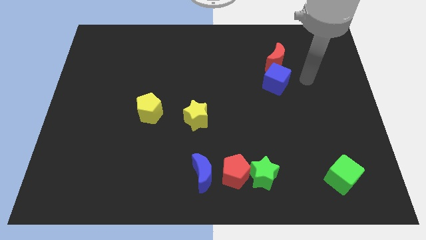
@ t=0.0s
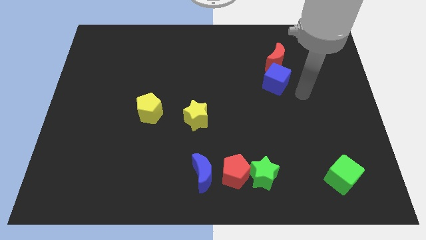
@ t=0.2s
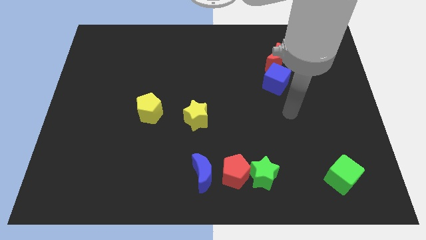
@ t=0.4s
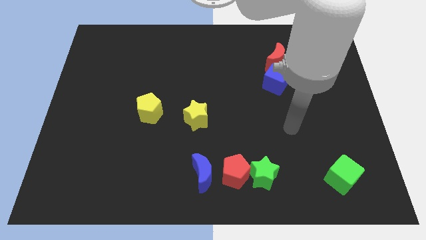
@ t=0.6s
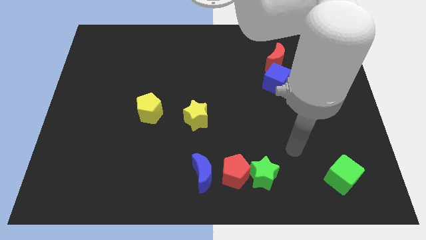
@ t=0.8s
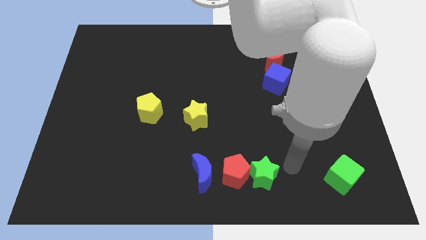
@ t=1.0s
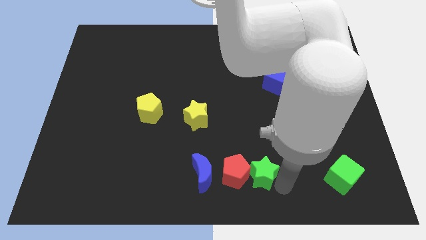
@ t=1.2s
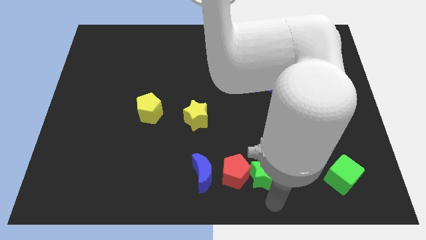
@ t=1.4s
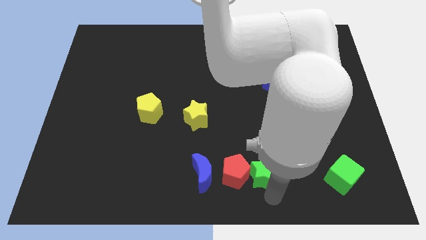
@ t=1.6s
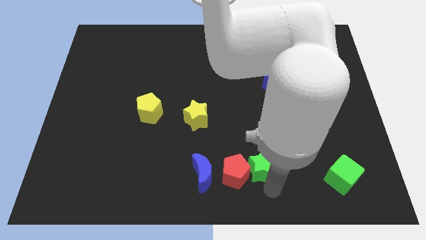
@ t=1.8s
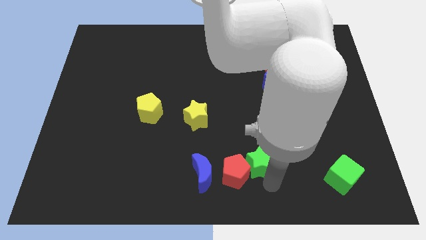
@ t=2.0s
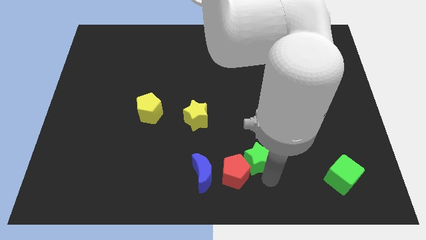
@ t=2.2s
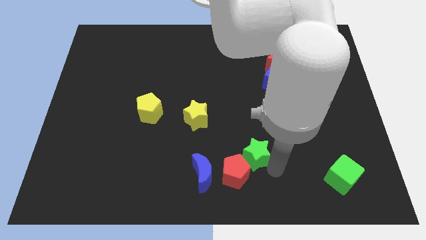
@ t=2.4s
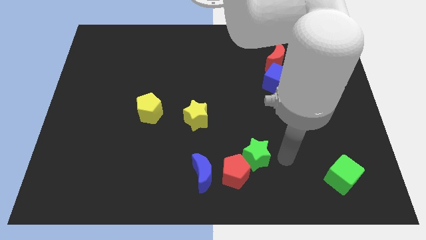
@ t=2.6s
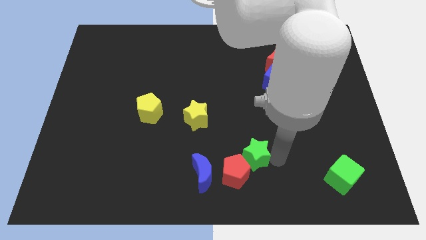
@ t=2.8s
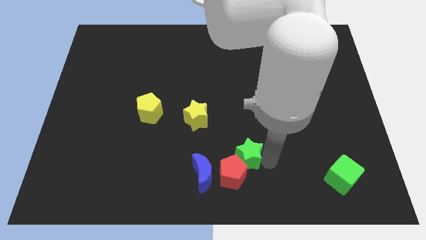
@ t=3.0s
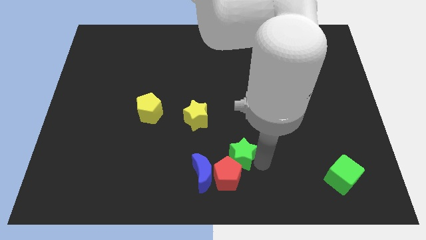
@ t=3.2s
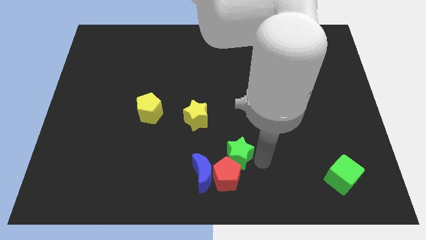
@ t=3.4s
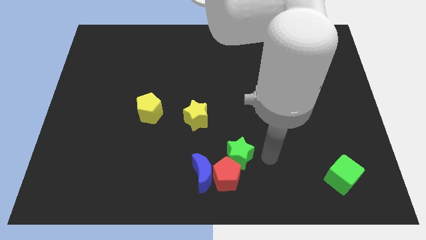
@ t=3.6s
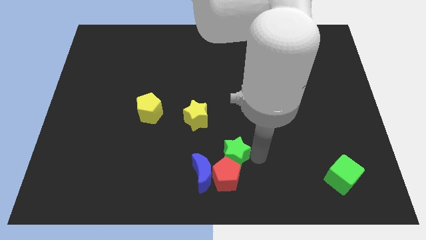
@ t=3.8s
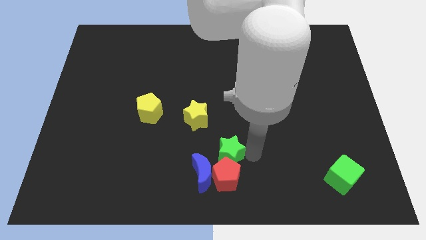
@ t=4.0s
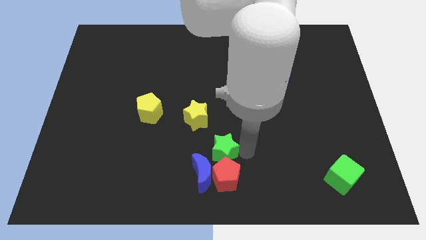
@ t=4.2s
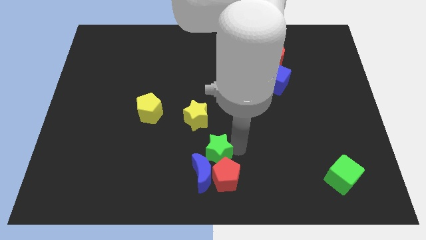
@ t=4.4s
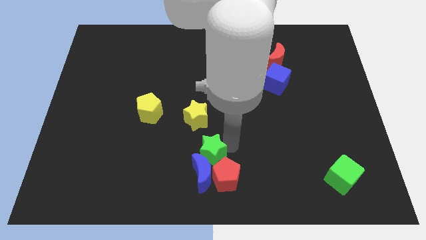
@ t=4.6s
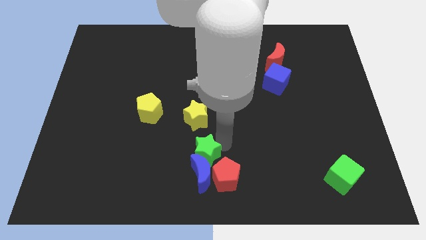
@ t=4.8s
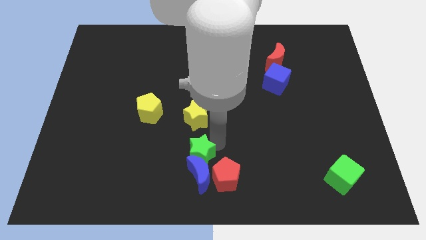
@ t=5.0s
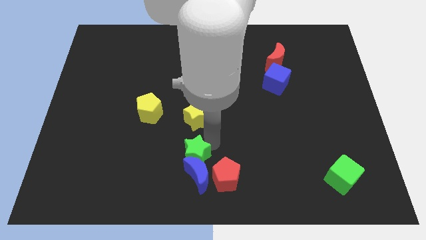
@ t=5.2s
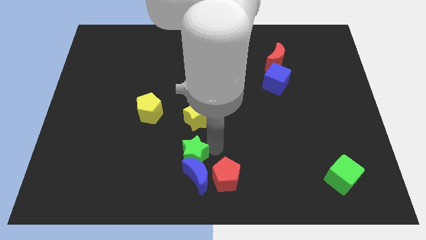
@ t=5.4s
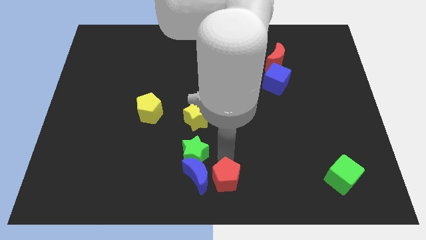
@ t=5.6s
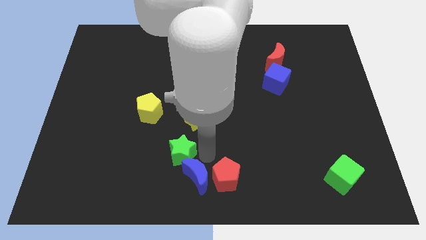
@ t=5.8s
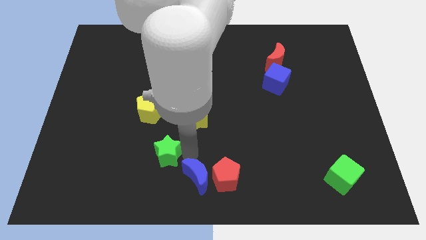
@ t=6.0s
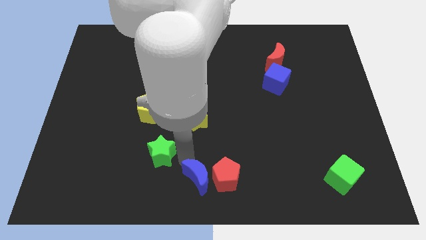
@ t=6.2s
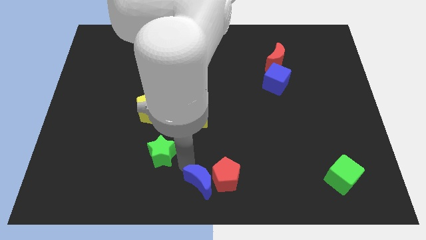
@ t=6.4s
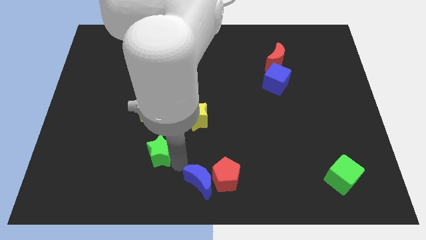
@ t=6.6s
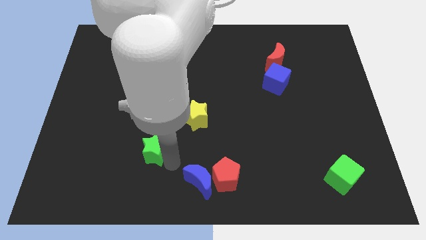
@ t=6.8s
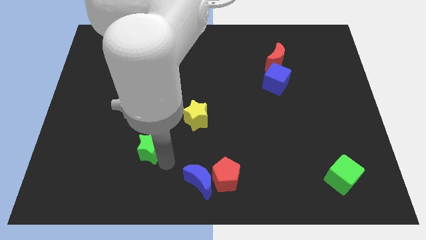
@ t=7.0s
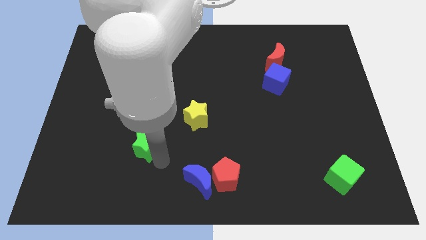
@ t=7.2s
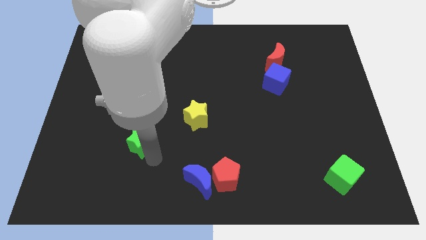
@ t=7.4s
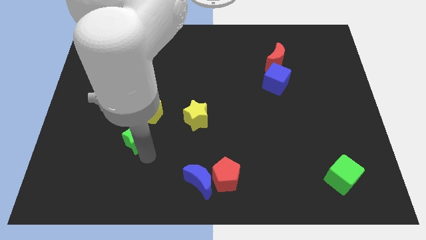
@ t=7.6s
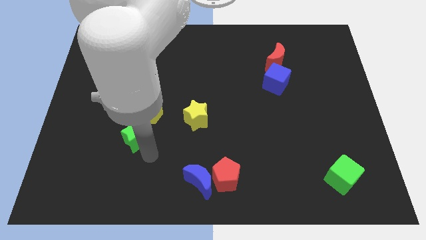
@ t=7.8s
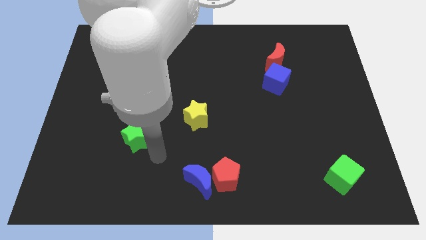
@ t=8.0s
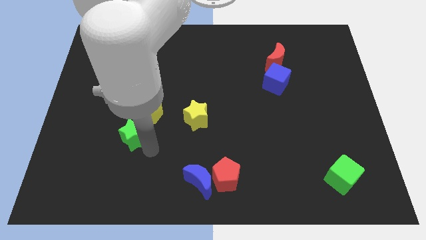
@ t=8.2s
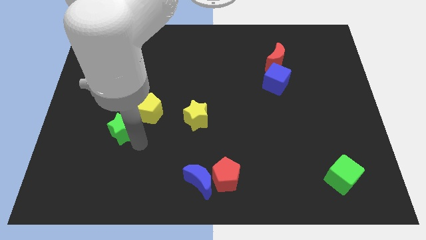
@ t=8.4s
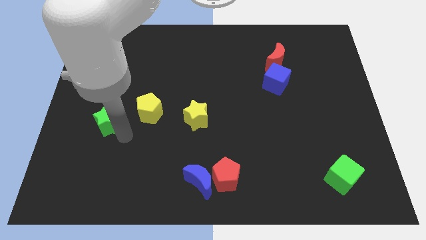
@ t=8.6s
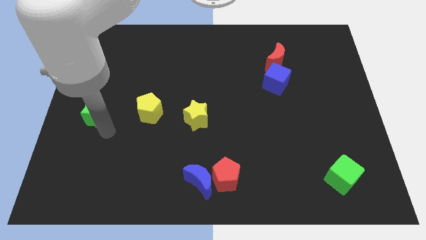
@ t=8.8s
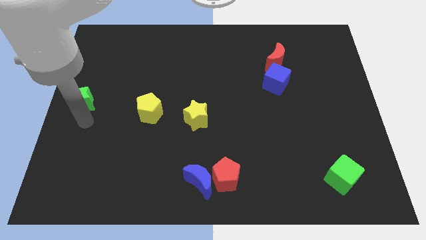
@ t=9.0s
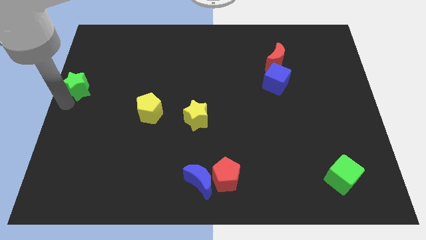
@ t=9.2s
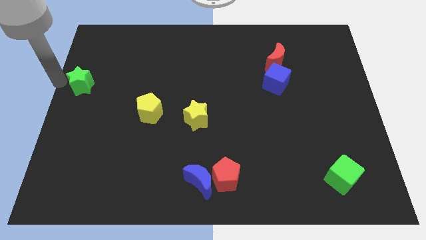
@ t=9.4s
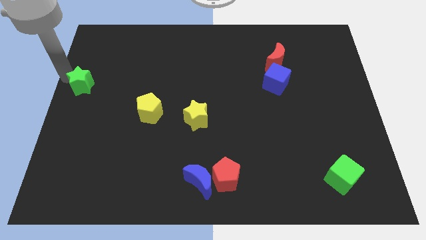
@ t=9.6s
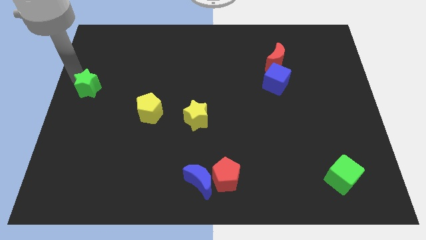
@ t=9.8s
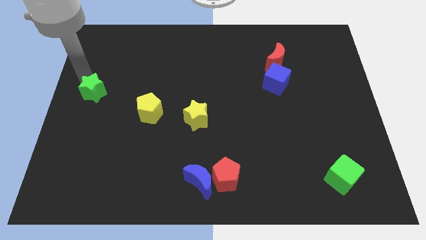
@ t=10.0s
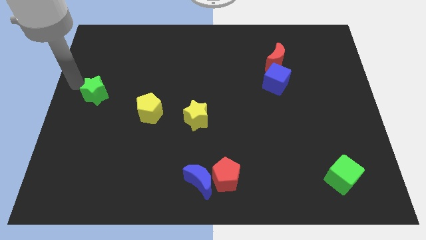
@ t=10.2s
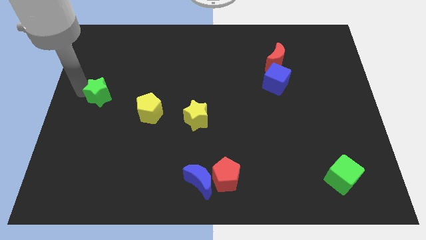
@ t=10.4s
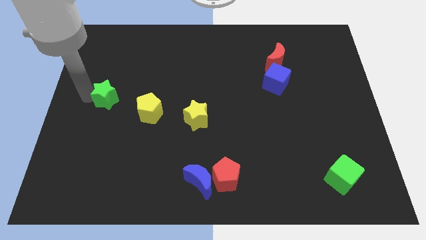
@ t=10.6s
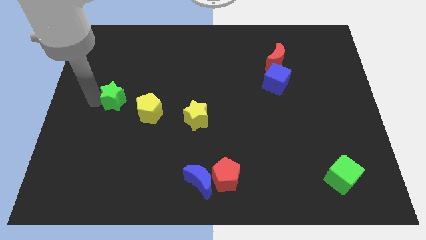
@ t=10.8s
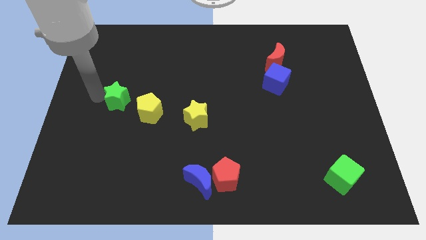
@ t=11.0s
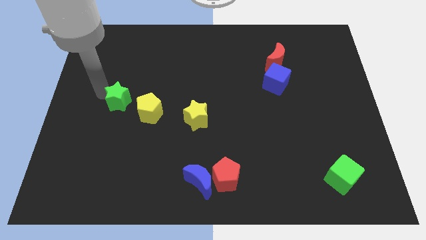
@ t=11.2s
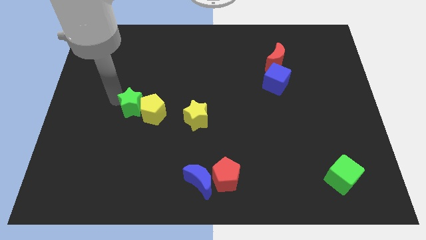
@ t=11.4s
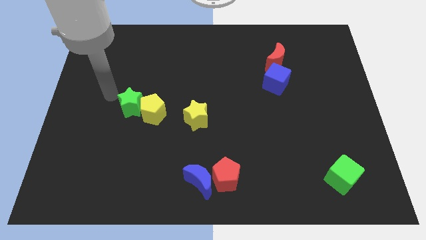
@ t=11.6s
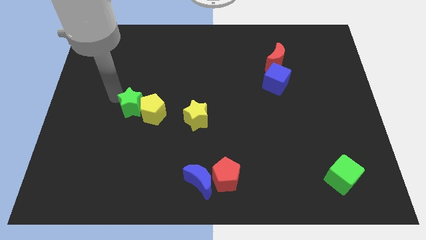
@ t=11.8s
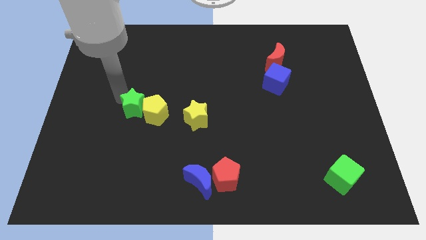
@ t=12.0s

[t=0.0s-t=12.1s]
put the green star to the left side of the yellow star

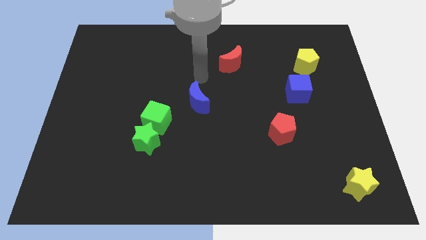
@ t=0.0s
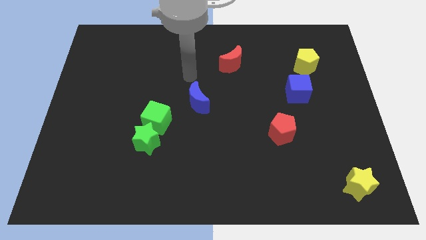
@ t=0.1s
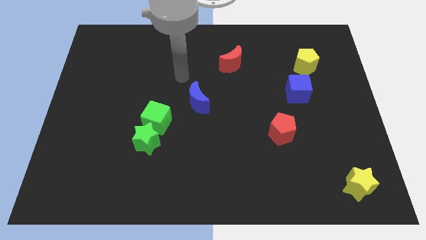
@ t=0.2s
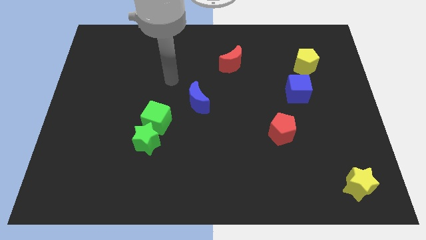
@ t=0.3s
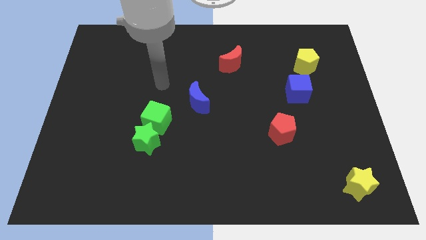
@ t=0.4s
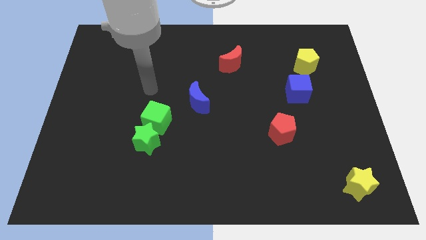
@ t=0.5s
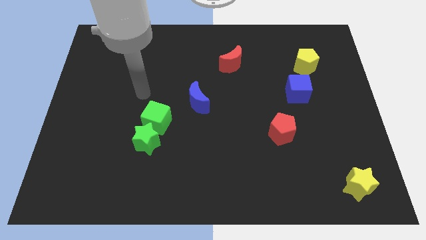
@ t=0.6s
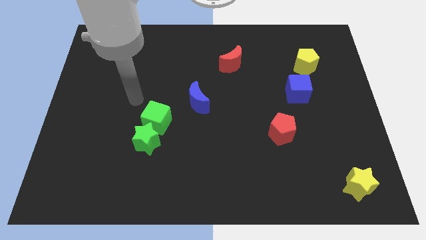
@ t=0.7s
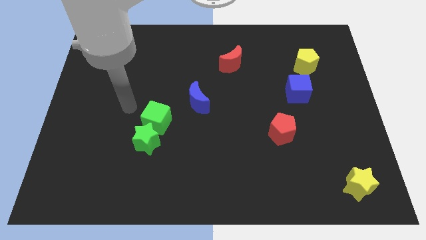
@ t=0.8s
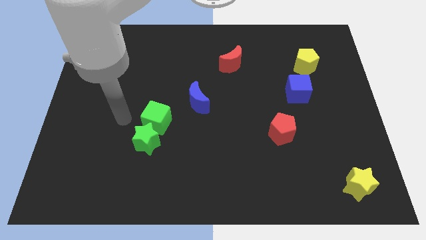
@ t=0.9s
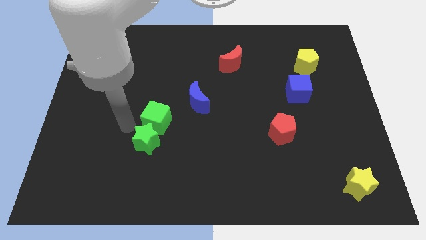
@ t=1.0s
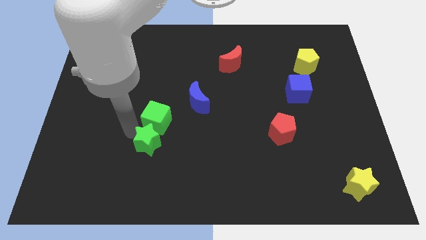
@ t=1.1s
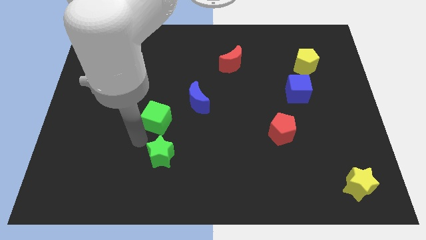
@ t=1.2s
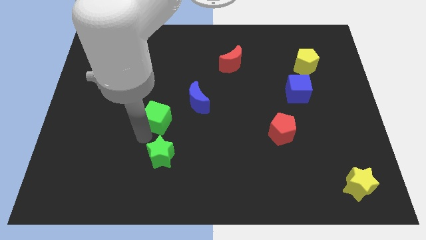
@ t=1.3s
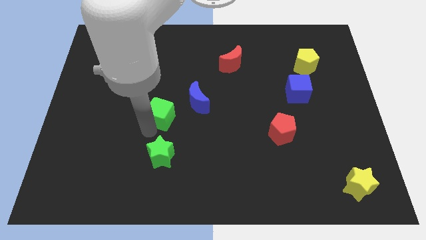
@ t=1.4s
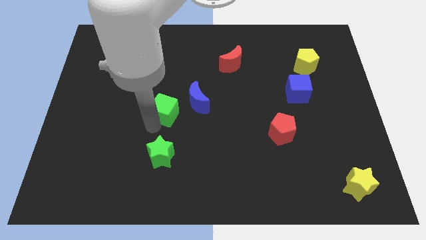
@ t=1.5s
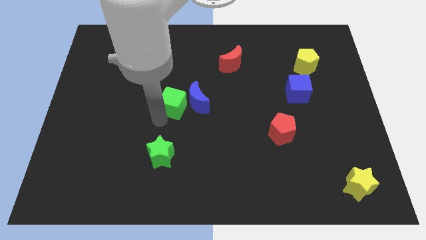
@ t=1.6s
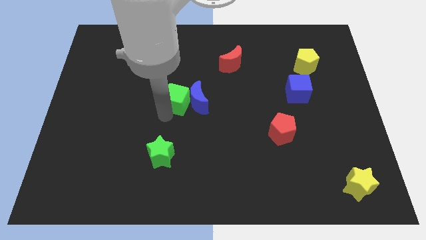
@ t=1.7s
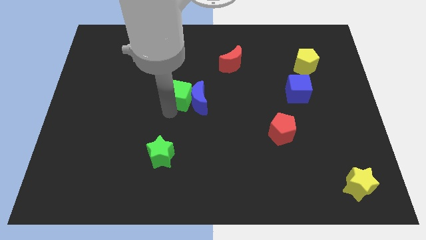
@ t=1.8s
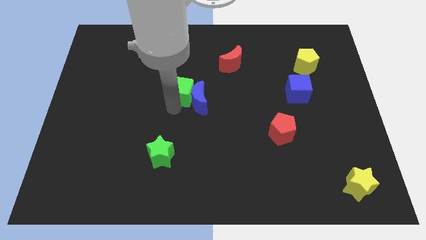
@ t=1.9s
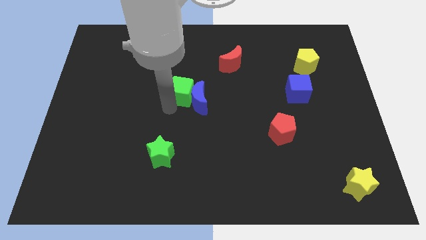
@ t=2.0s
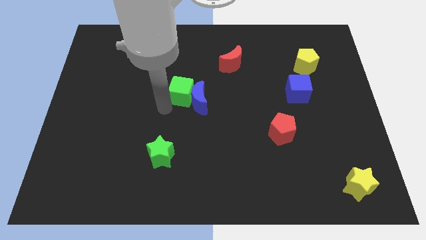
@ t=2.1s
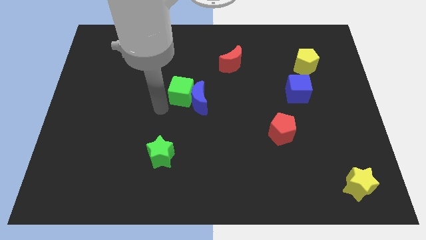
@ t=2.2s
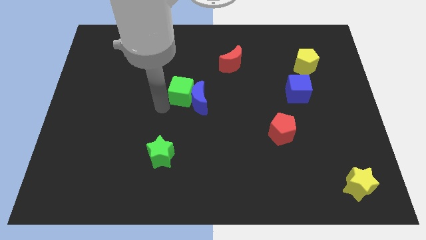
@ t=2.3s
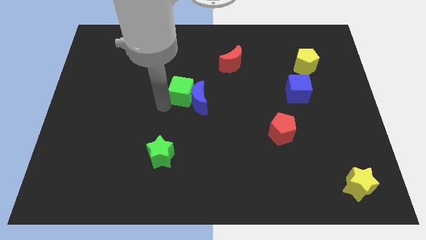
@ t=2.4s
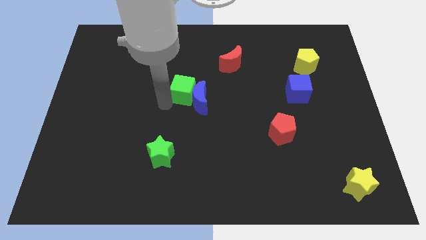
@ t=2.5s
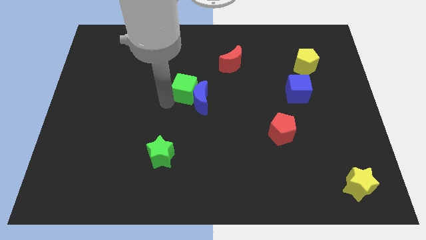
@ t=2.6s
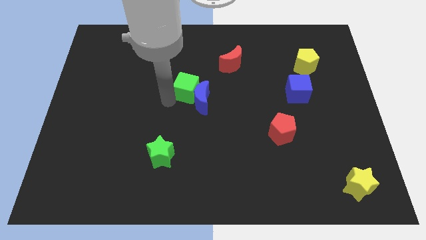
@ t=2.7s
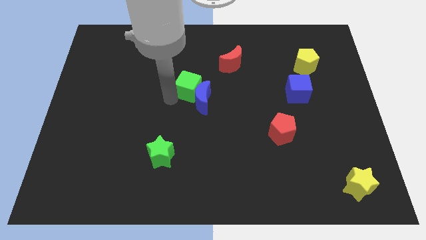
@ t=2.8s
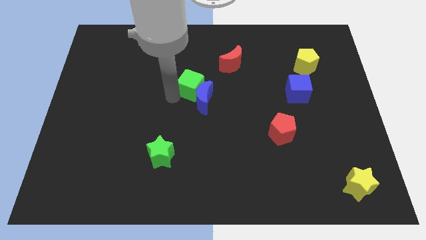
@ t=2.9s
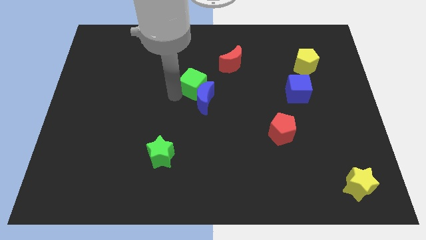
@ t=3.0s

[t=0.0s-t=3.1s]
put the green cube to the bottom left side of the red moon
